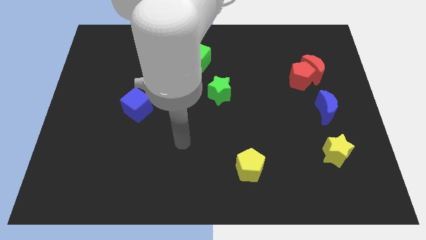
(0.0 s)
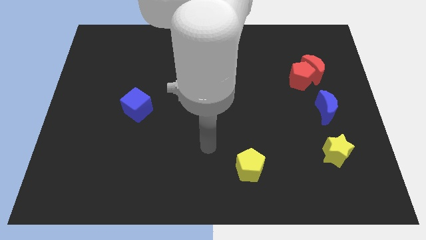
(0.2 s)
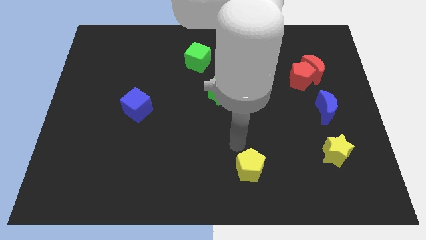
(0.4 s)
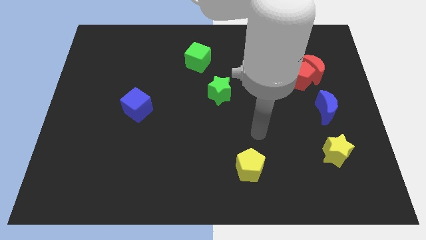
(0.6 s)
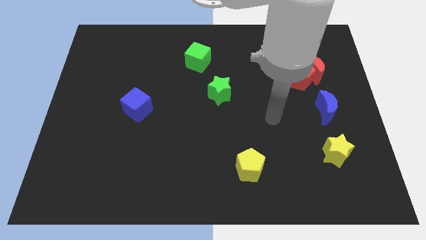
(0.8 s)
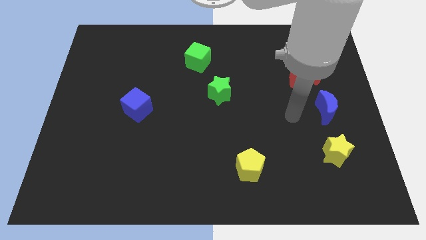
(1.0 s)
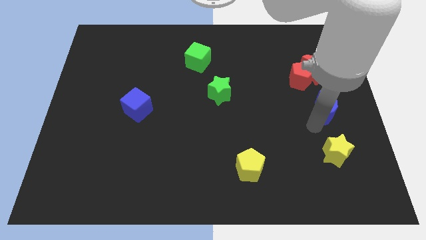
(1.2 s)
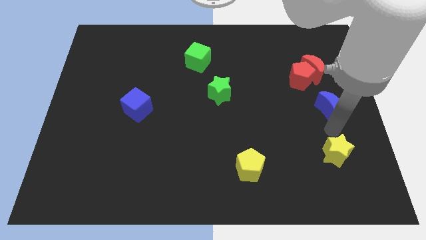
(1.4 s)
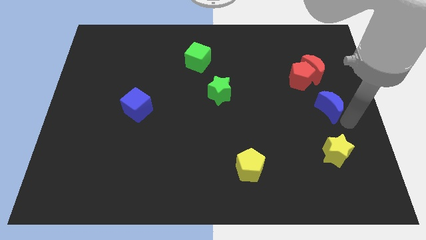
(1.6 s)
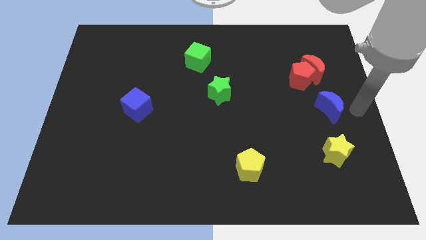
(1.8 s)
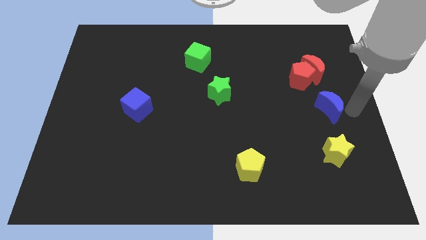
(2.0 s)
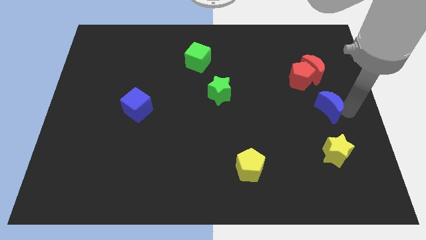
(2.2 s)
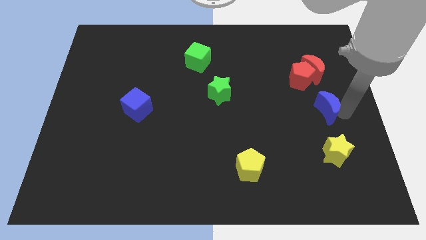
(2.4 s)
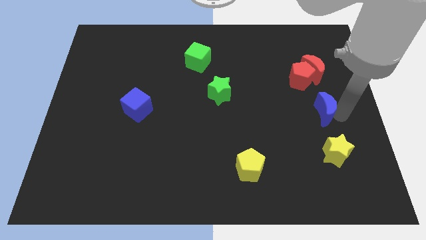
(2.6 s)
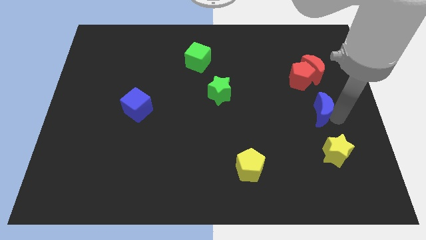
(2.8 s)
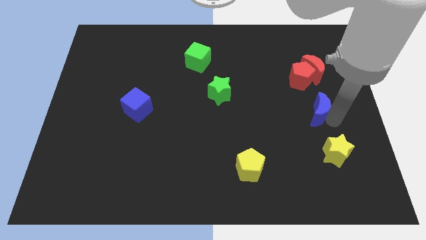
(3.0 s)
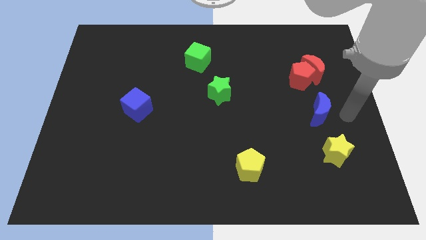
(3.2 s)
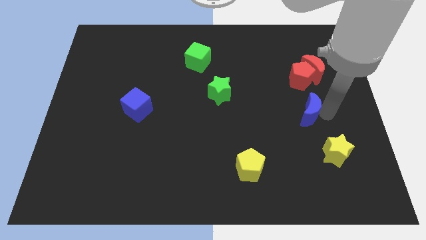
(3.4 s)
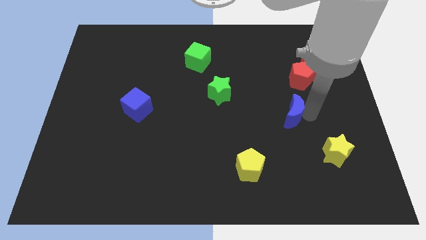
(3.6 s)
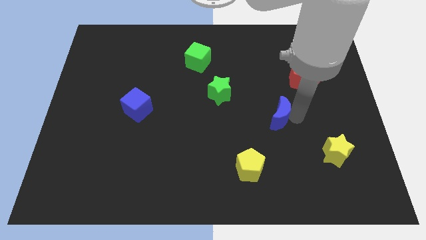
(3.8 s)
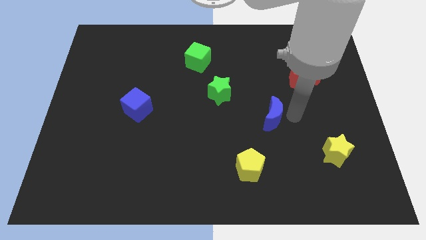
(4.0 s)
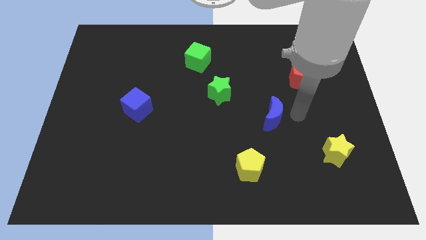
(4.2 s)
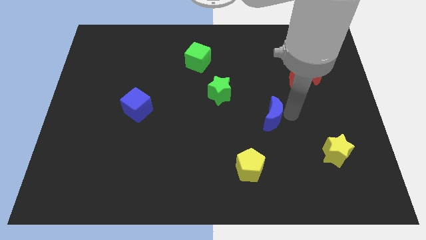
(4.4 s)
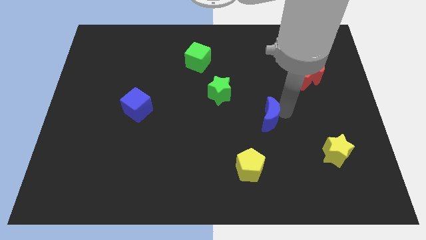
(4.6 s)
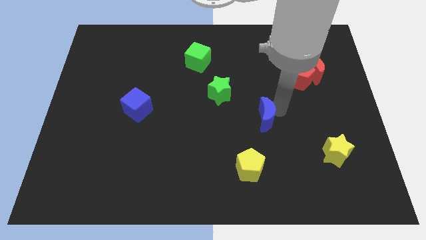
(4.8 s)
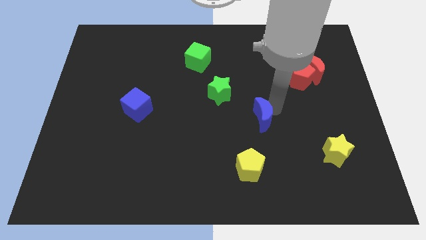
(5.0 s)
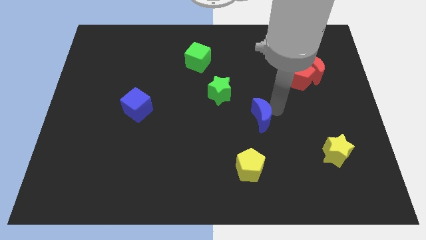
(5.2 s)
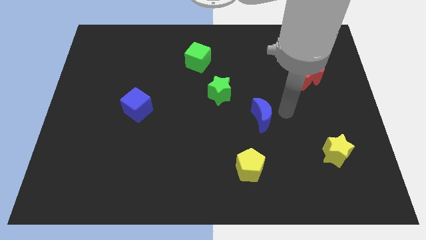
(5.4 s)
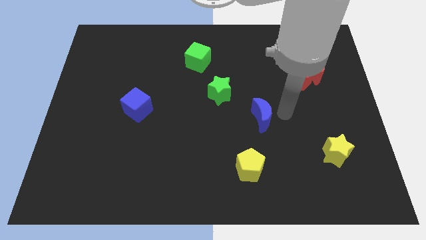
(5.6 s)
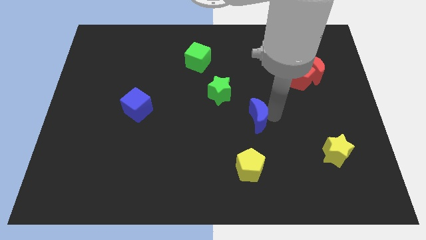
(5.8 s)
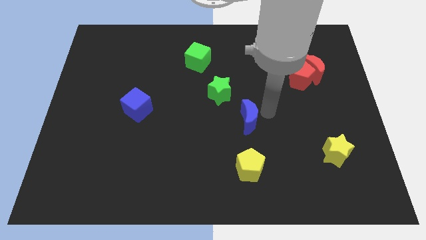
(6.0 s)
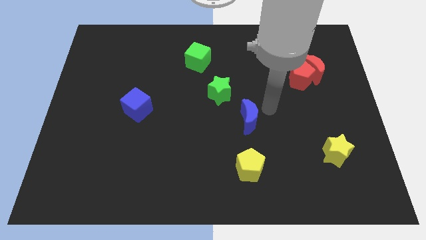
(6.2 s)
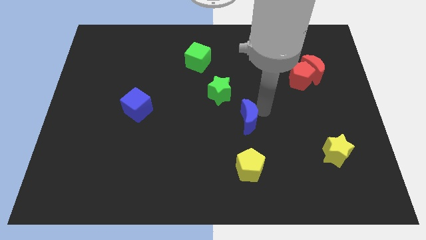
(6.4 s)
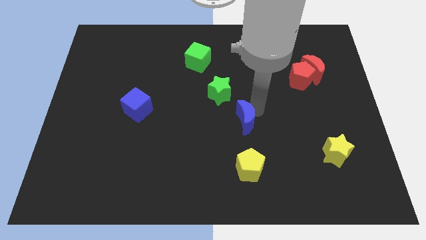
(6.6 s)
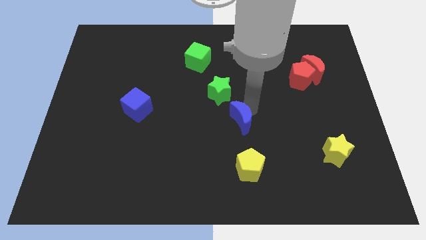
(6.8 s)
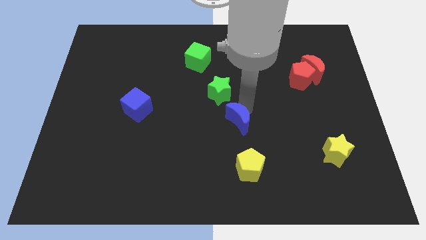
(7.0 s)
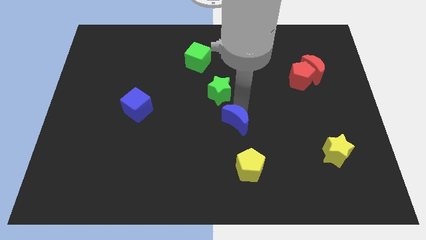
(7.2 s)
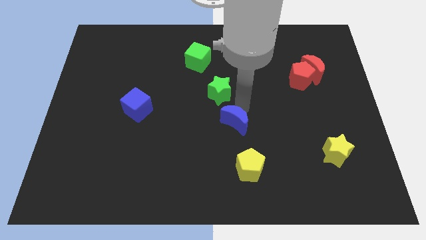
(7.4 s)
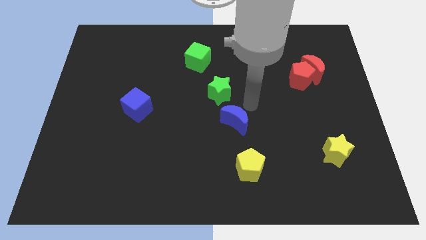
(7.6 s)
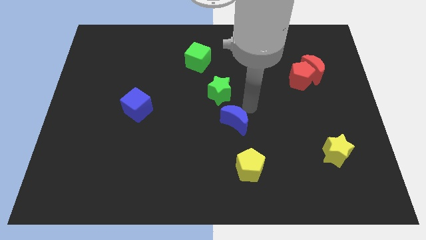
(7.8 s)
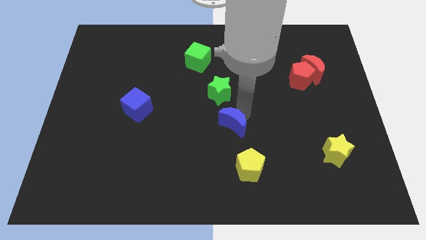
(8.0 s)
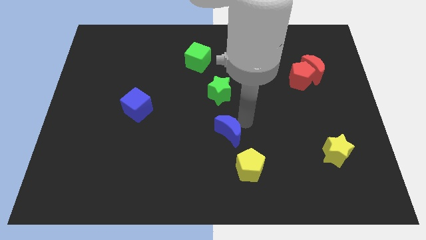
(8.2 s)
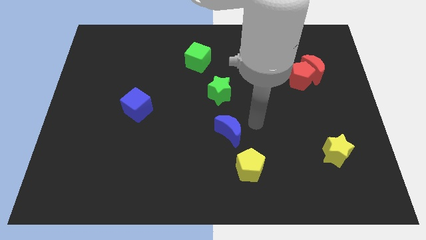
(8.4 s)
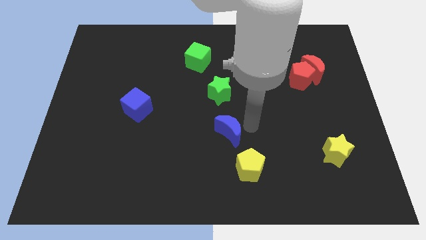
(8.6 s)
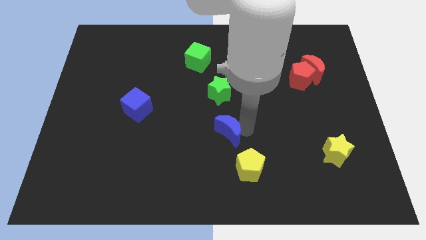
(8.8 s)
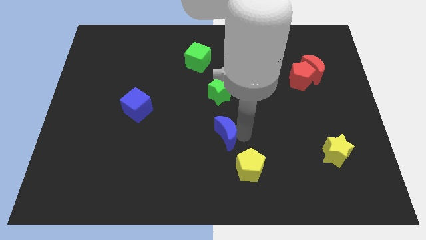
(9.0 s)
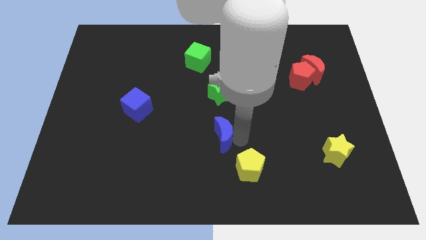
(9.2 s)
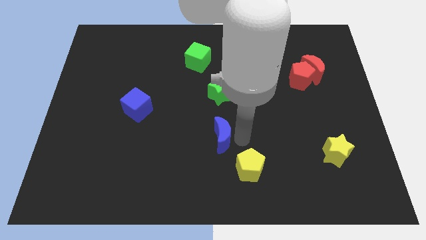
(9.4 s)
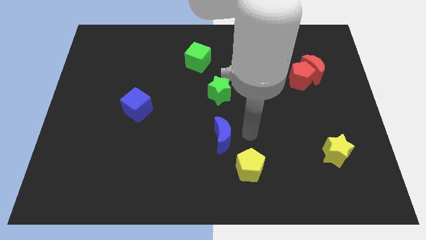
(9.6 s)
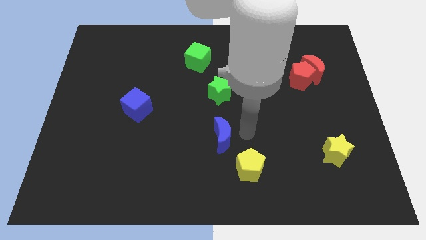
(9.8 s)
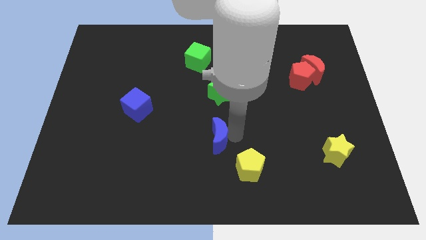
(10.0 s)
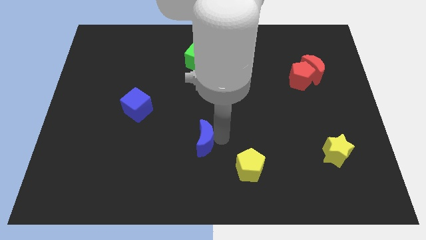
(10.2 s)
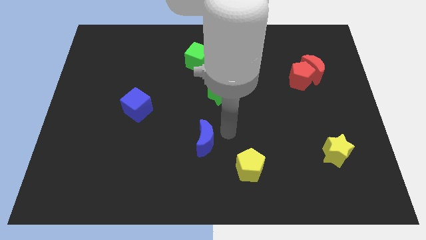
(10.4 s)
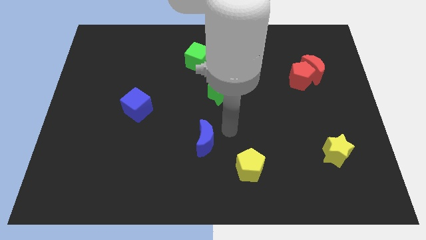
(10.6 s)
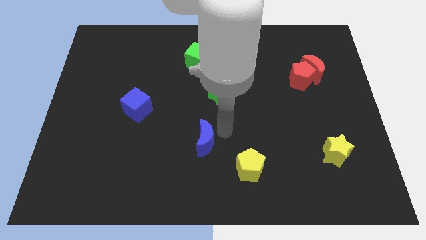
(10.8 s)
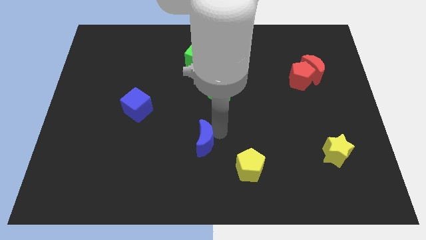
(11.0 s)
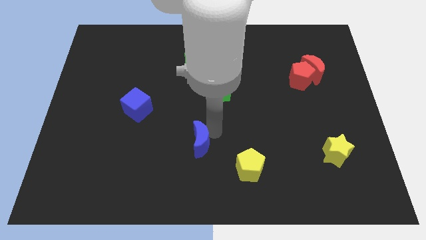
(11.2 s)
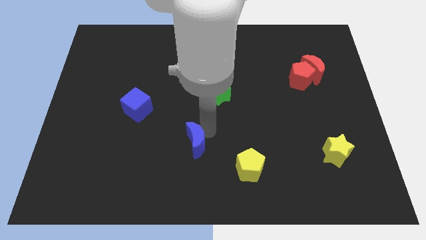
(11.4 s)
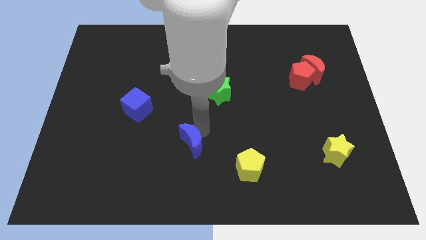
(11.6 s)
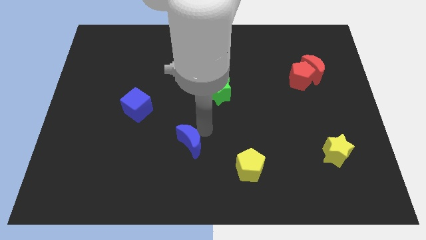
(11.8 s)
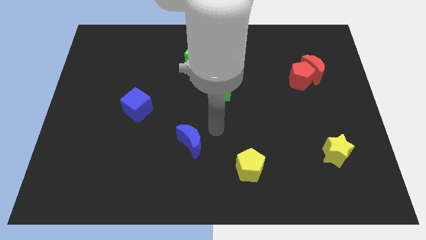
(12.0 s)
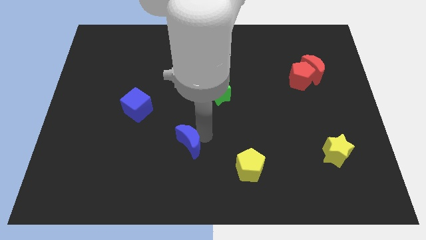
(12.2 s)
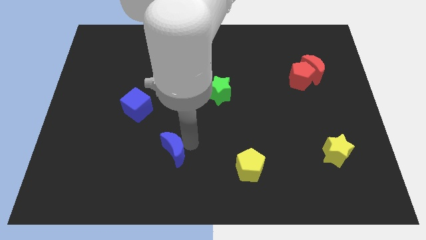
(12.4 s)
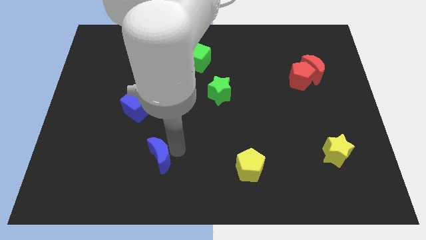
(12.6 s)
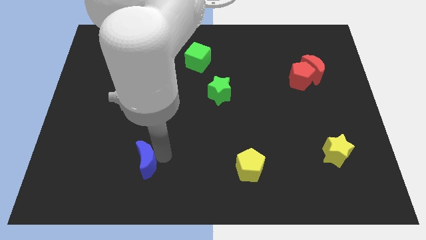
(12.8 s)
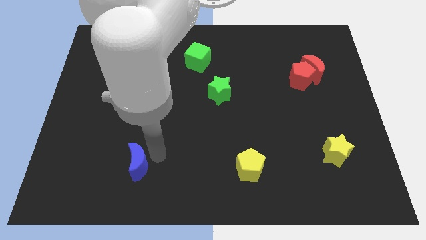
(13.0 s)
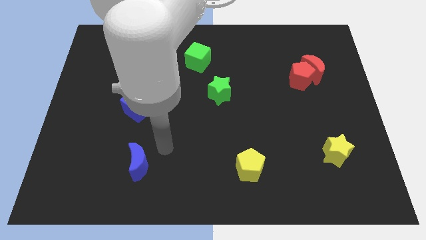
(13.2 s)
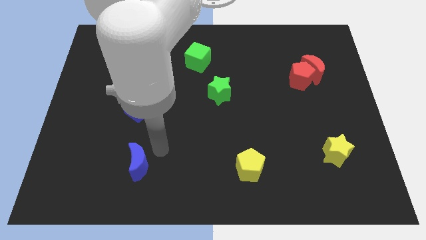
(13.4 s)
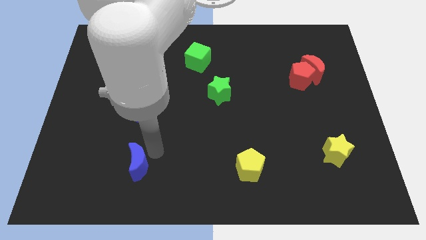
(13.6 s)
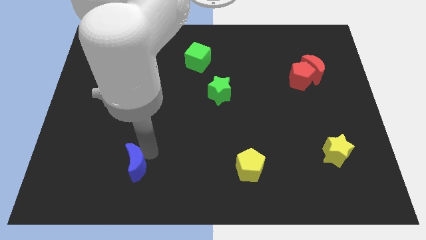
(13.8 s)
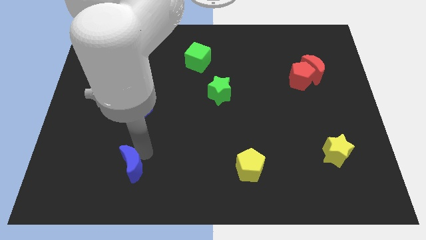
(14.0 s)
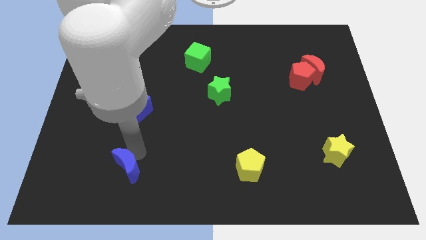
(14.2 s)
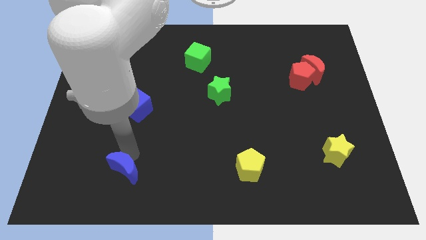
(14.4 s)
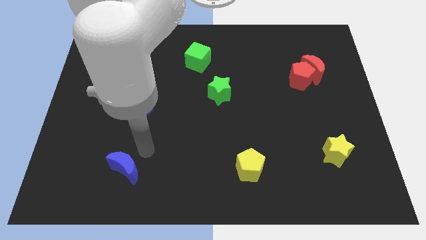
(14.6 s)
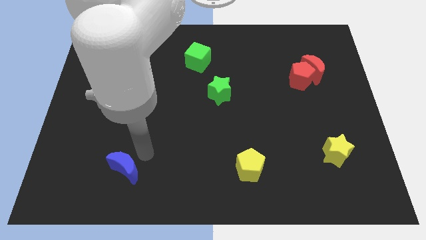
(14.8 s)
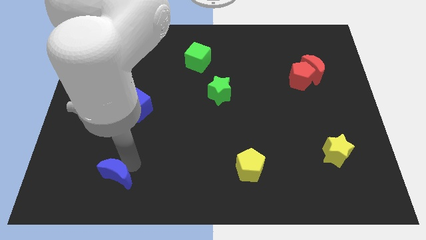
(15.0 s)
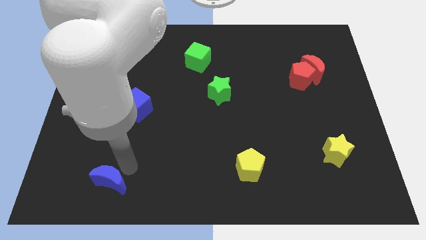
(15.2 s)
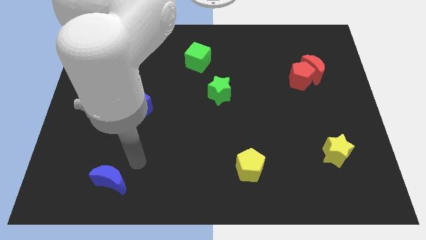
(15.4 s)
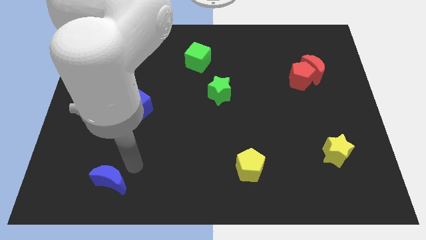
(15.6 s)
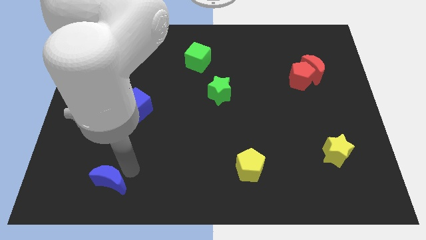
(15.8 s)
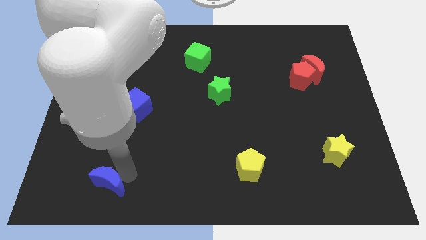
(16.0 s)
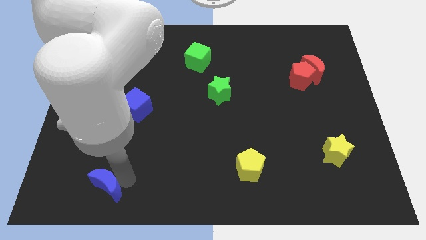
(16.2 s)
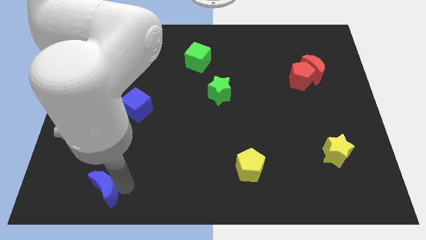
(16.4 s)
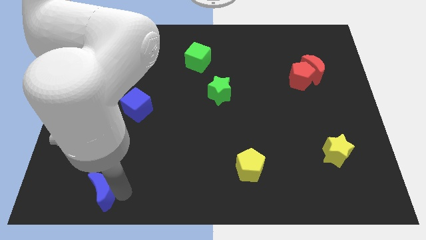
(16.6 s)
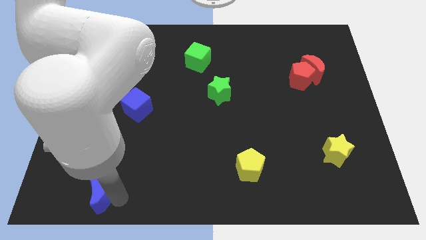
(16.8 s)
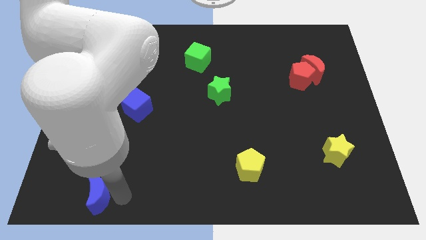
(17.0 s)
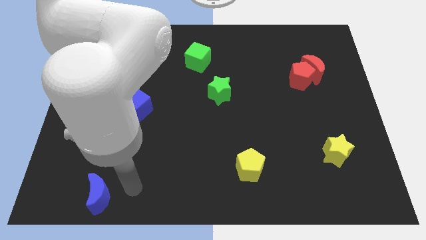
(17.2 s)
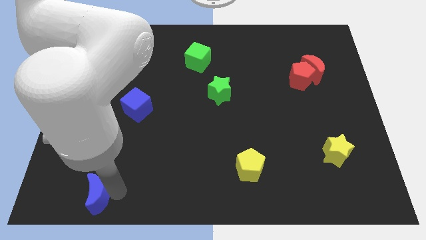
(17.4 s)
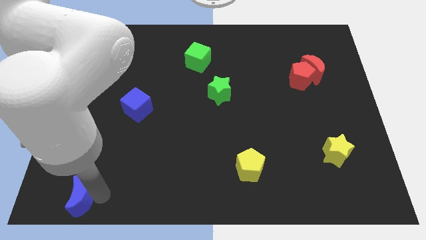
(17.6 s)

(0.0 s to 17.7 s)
push the blue moon to the bottom left
